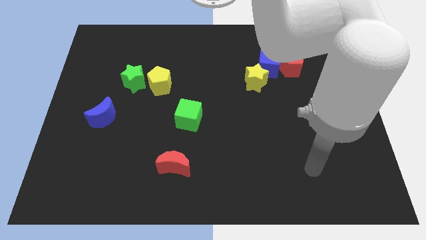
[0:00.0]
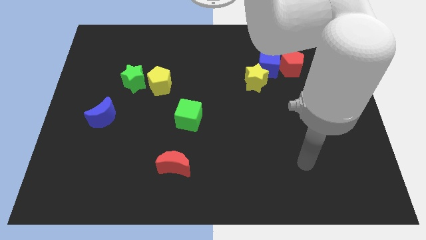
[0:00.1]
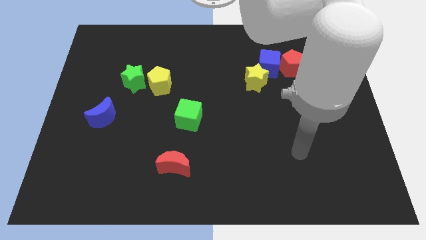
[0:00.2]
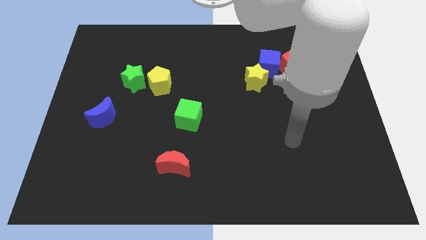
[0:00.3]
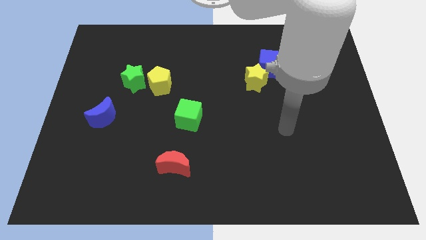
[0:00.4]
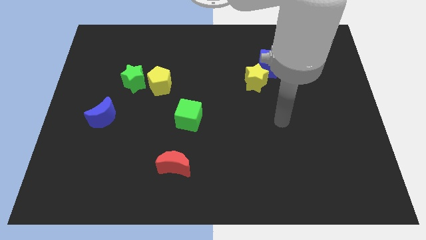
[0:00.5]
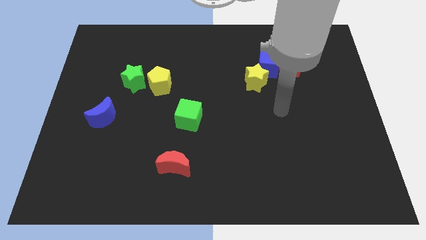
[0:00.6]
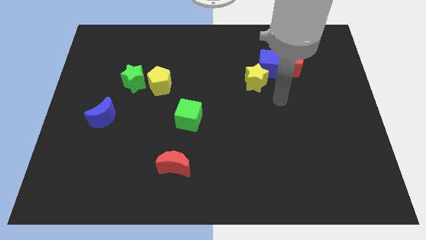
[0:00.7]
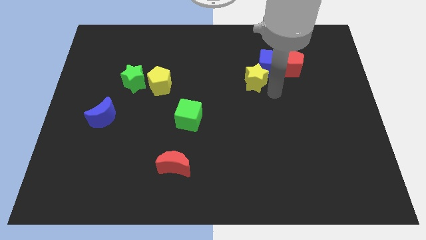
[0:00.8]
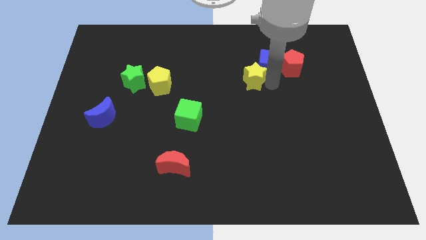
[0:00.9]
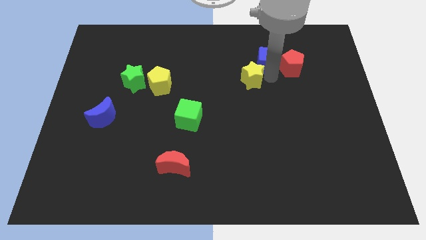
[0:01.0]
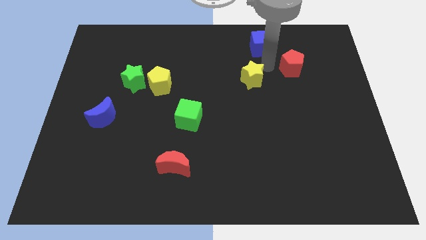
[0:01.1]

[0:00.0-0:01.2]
separate the red pentagon from the blue cube

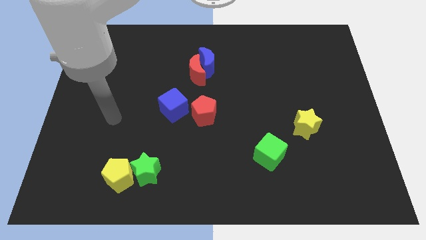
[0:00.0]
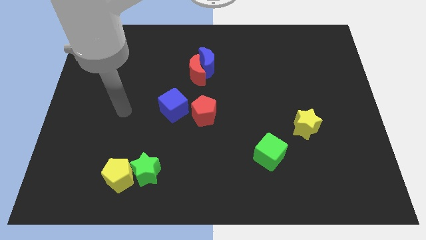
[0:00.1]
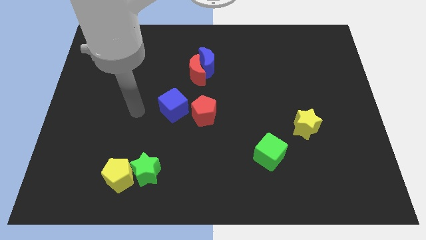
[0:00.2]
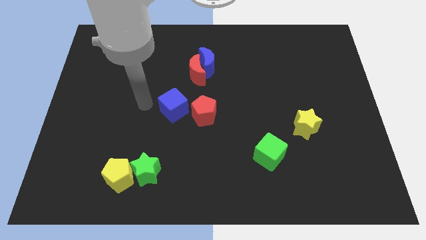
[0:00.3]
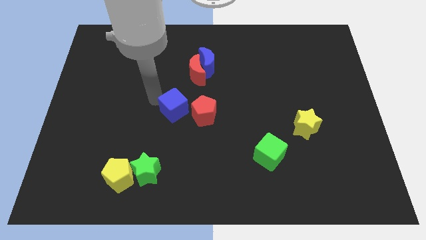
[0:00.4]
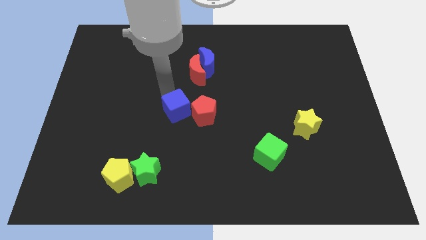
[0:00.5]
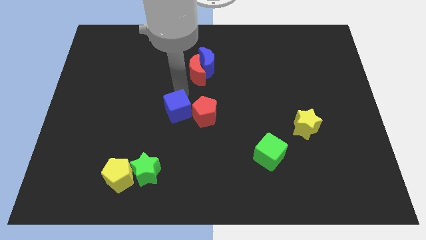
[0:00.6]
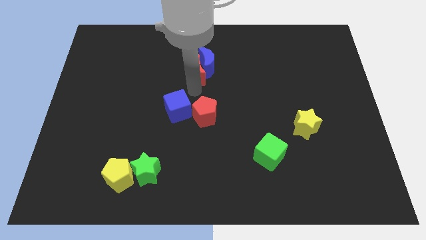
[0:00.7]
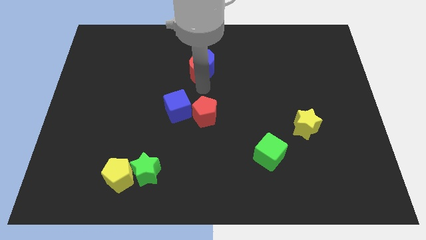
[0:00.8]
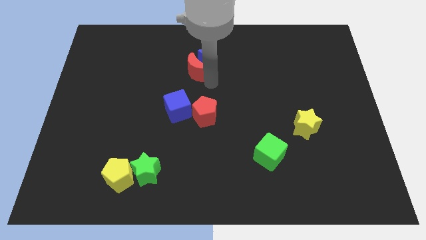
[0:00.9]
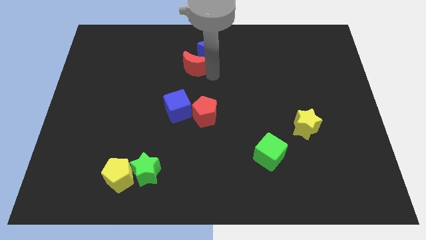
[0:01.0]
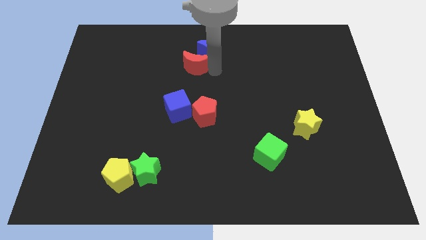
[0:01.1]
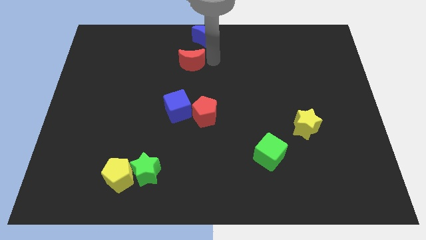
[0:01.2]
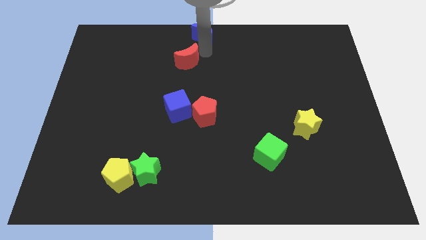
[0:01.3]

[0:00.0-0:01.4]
separate the red moon from the blue moon

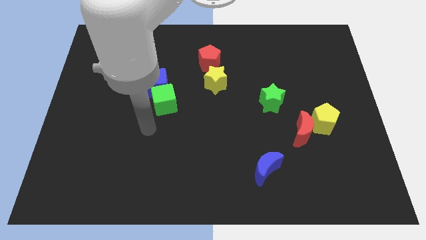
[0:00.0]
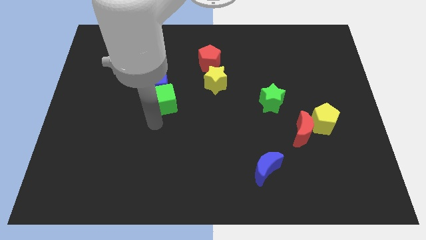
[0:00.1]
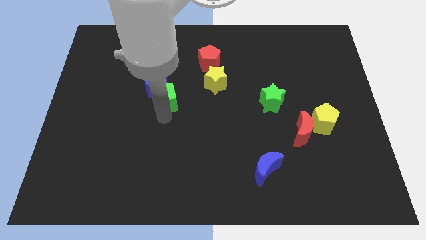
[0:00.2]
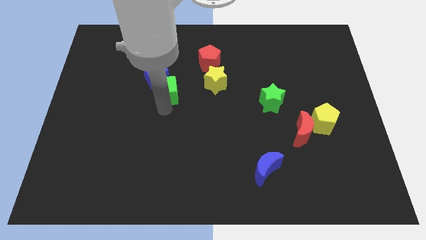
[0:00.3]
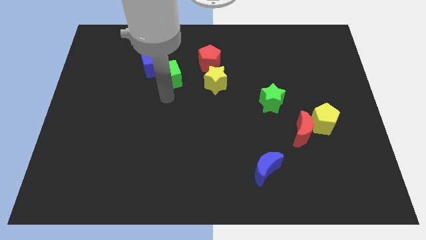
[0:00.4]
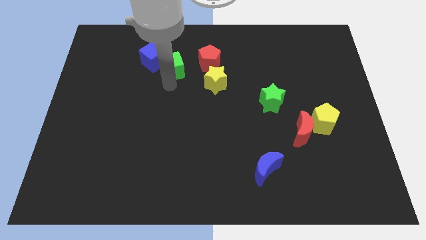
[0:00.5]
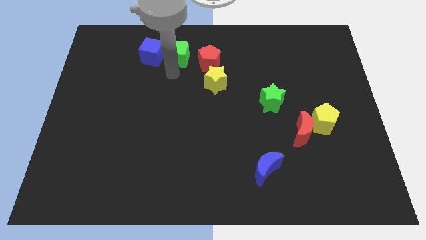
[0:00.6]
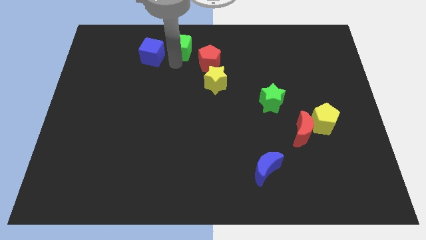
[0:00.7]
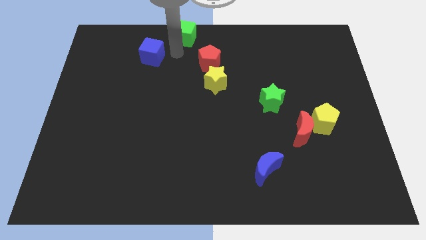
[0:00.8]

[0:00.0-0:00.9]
move the blue cube away from the green cube

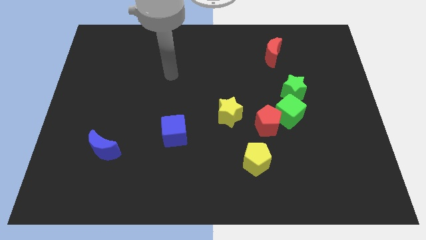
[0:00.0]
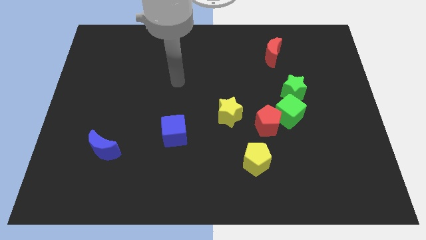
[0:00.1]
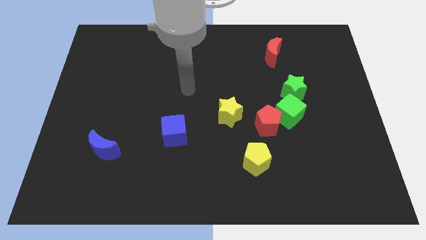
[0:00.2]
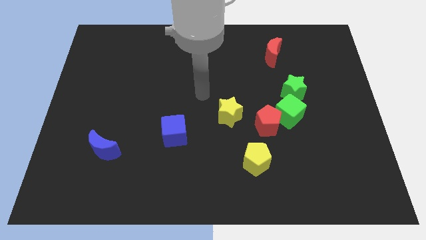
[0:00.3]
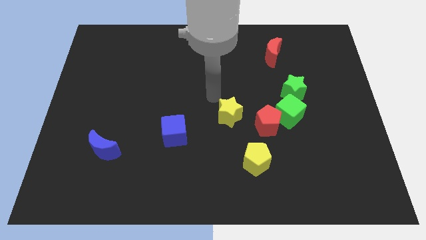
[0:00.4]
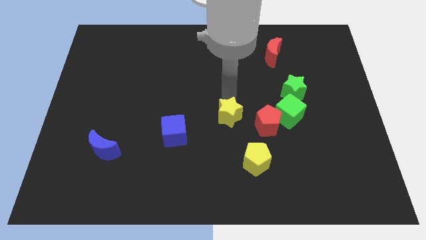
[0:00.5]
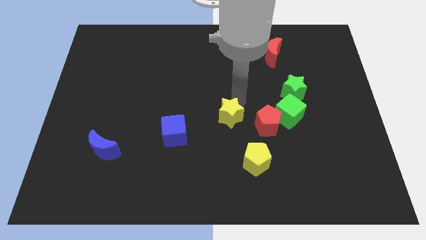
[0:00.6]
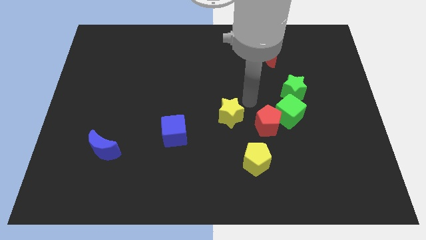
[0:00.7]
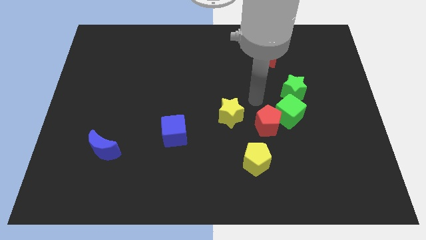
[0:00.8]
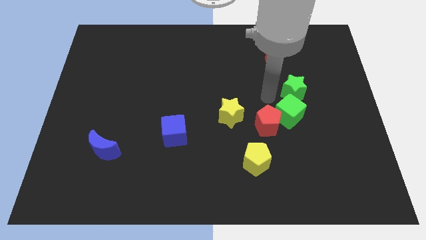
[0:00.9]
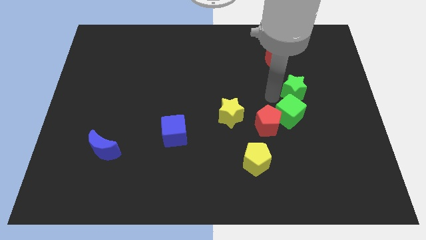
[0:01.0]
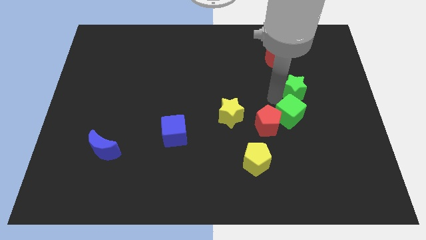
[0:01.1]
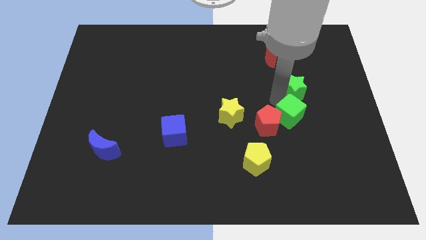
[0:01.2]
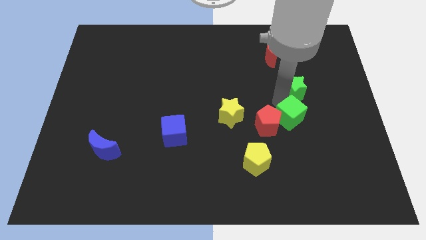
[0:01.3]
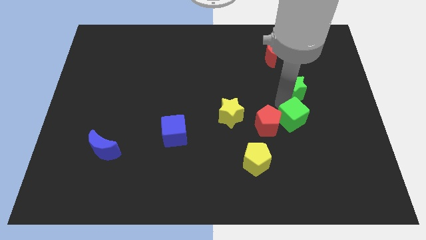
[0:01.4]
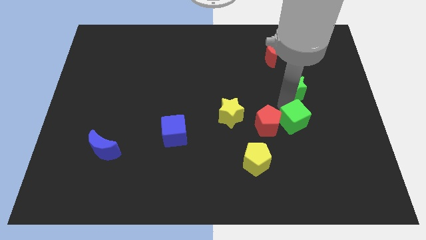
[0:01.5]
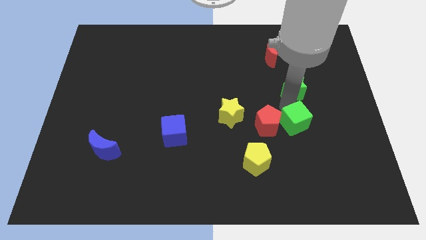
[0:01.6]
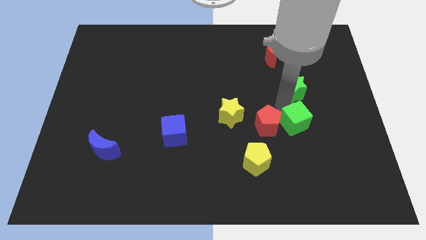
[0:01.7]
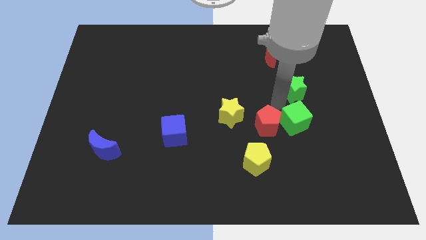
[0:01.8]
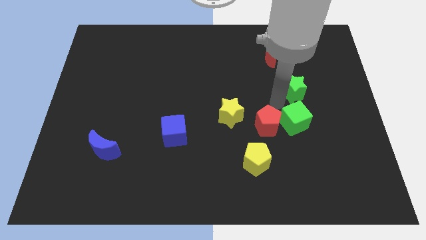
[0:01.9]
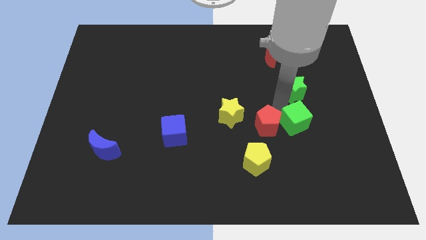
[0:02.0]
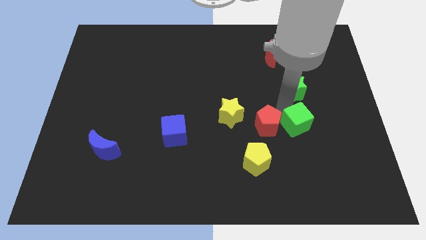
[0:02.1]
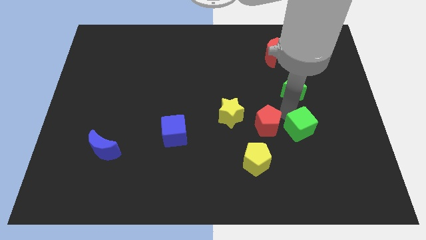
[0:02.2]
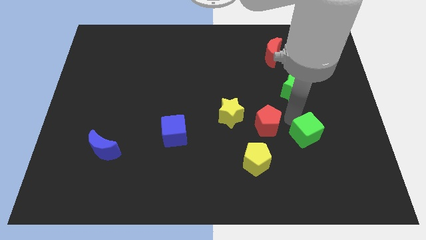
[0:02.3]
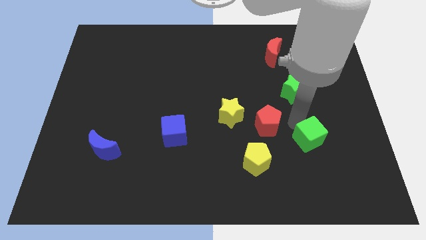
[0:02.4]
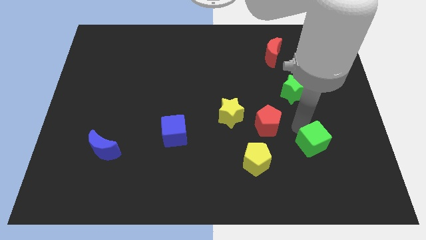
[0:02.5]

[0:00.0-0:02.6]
move the green cube away from the red pentagon and green star

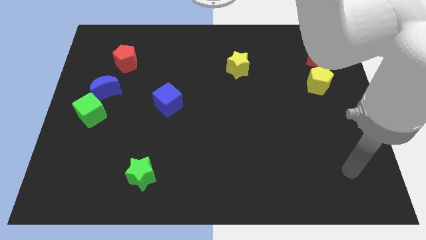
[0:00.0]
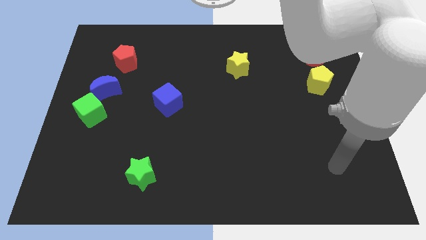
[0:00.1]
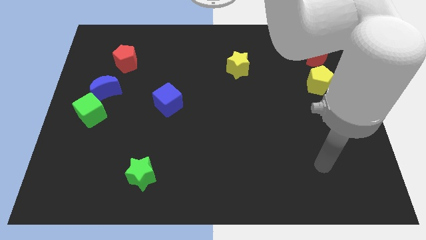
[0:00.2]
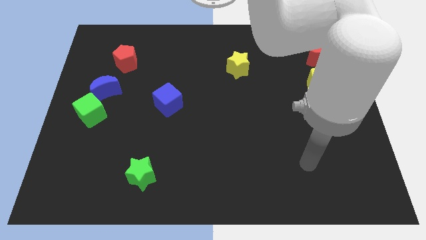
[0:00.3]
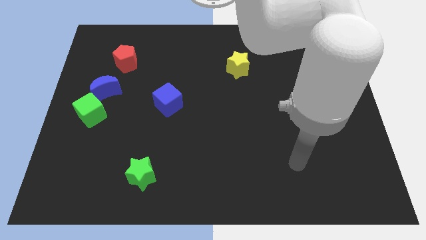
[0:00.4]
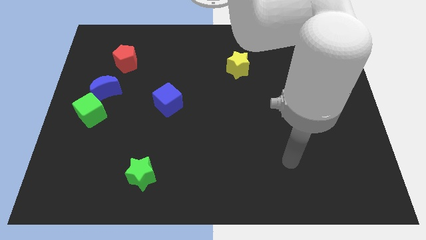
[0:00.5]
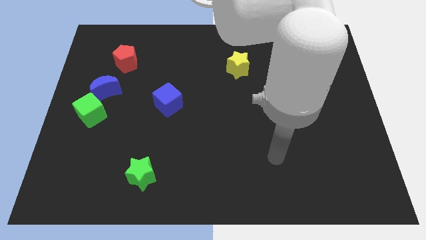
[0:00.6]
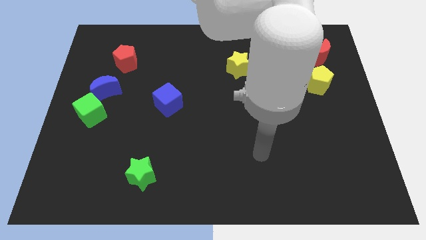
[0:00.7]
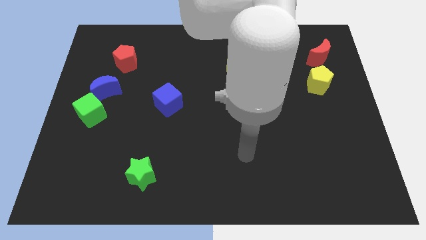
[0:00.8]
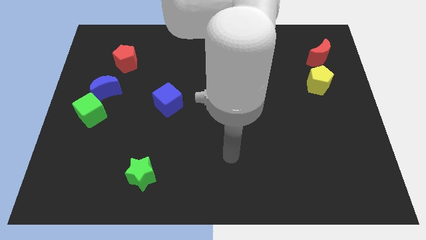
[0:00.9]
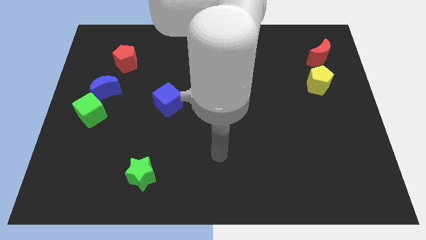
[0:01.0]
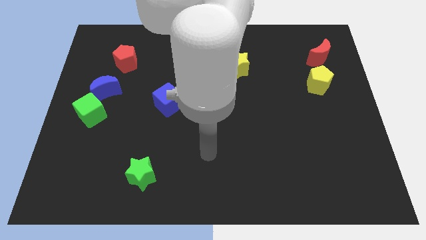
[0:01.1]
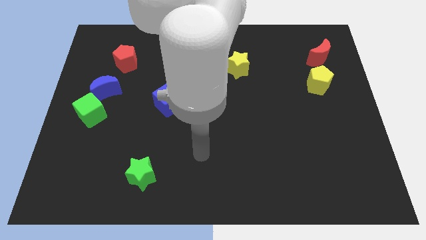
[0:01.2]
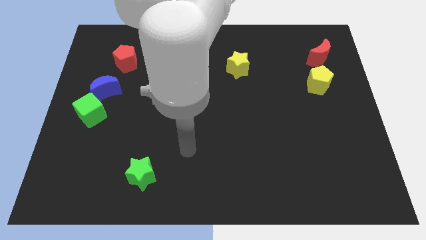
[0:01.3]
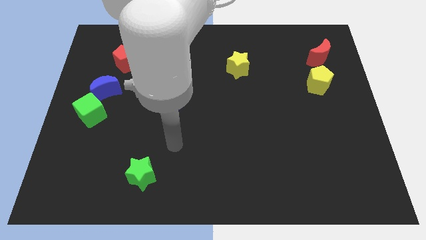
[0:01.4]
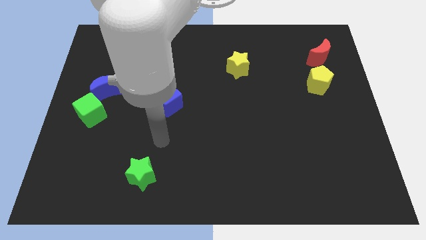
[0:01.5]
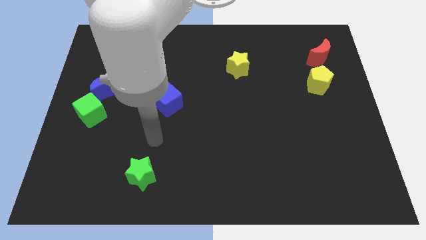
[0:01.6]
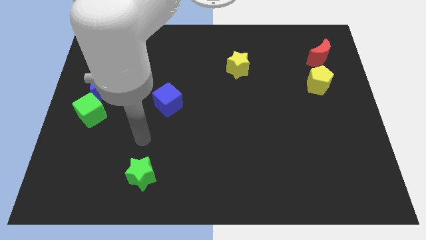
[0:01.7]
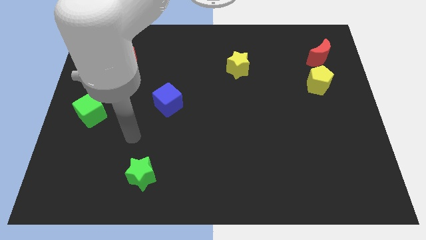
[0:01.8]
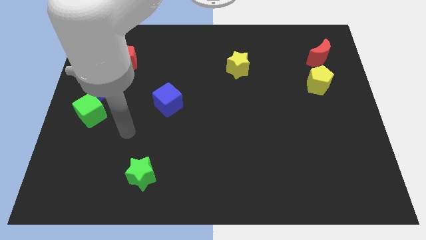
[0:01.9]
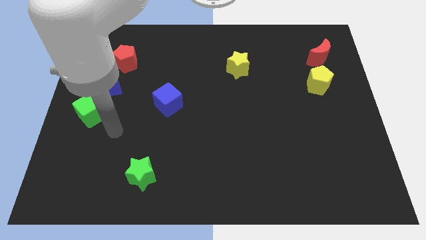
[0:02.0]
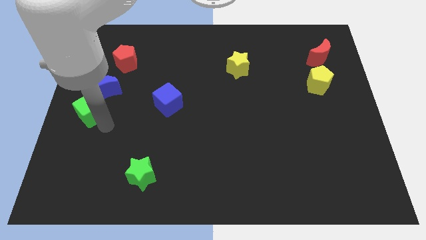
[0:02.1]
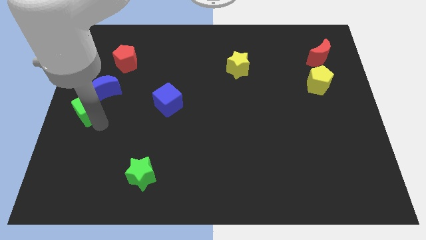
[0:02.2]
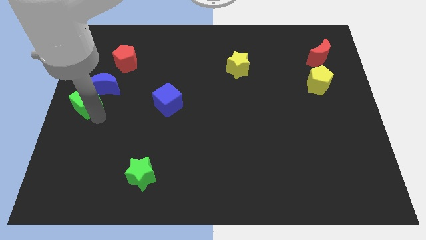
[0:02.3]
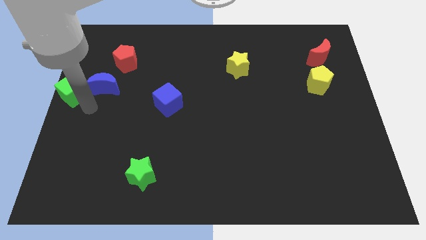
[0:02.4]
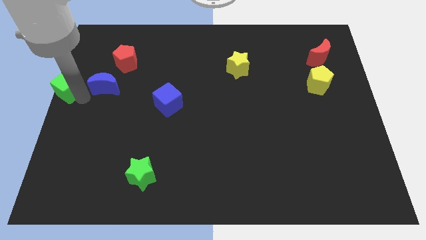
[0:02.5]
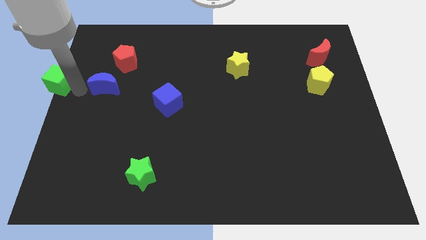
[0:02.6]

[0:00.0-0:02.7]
move the blue moon away from the green cube

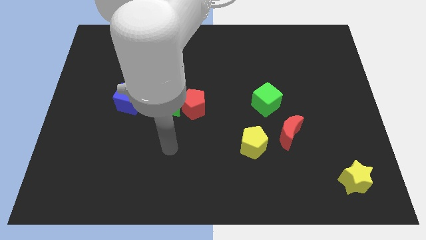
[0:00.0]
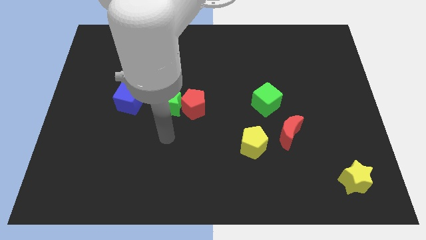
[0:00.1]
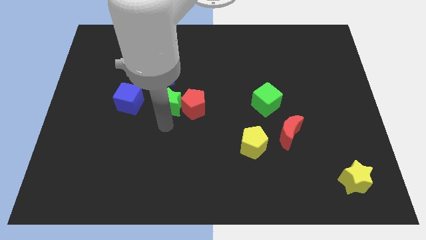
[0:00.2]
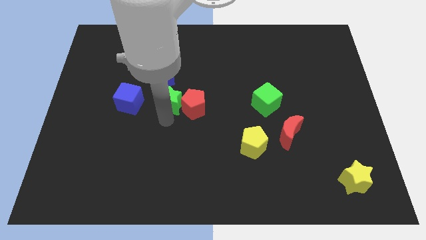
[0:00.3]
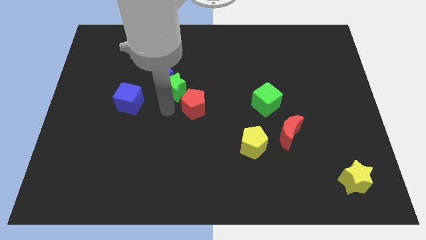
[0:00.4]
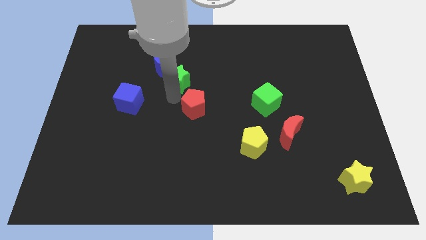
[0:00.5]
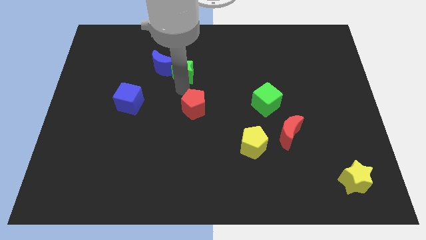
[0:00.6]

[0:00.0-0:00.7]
pull the red pentagon apart from the green star
